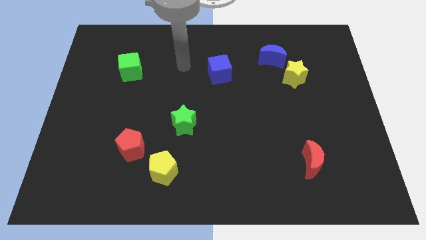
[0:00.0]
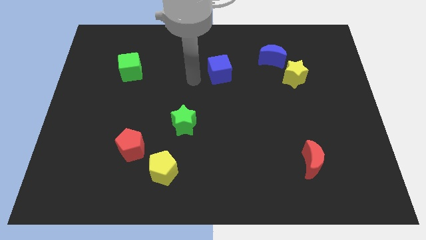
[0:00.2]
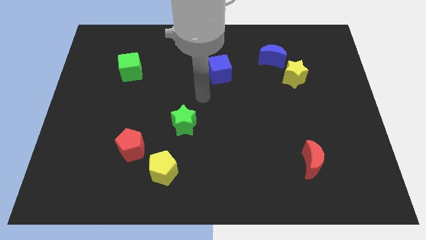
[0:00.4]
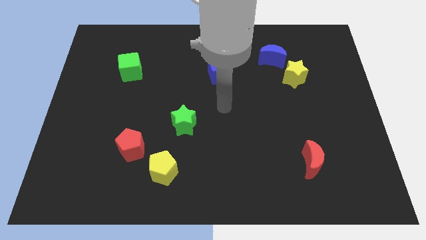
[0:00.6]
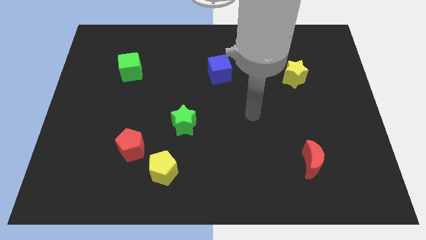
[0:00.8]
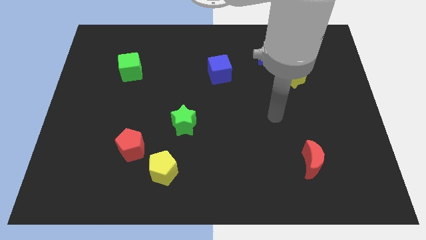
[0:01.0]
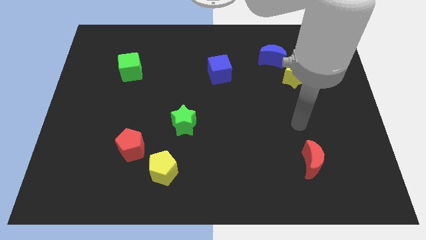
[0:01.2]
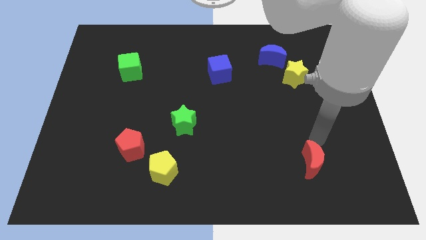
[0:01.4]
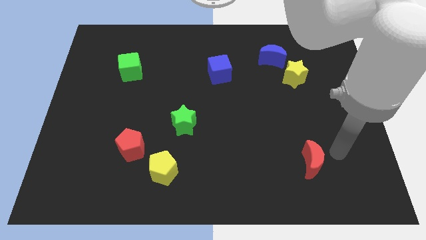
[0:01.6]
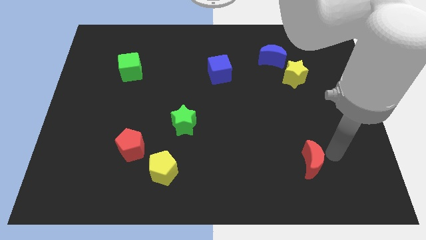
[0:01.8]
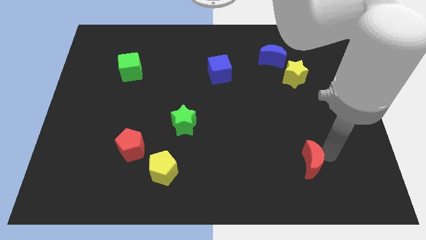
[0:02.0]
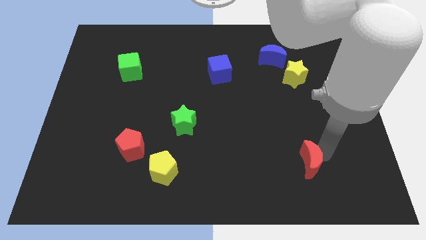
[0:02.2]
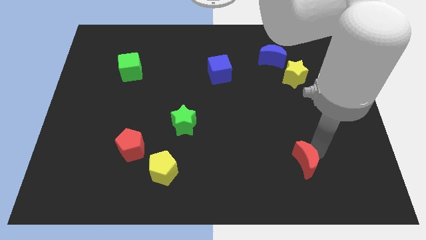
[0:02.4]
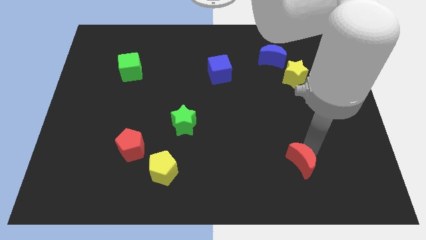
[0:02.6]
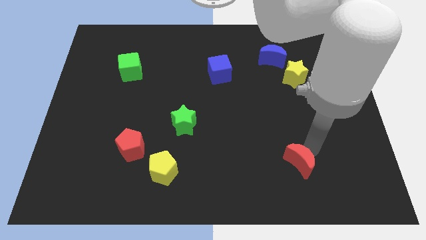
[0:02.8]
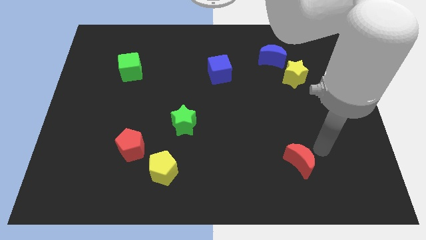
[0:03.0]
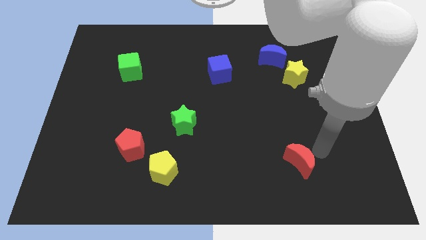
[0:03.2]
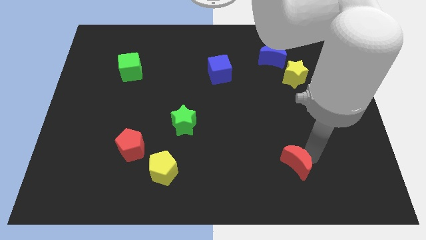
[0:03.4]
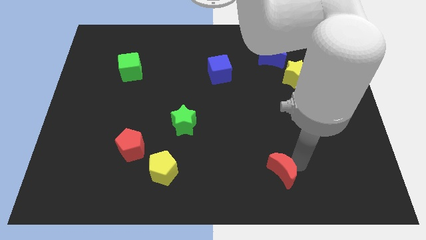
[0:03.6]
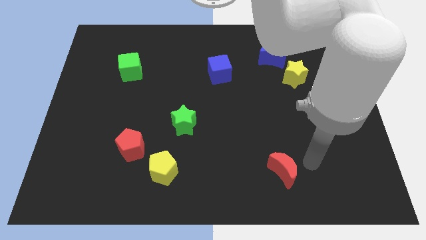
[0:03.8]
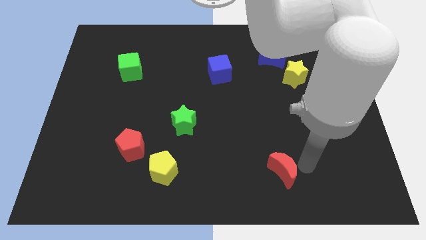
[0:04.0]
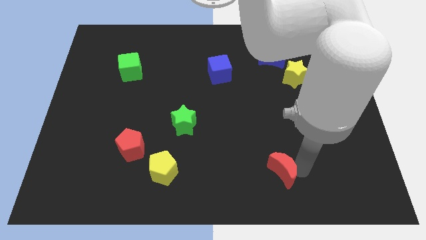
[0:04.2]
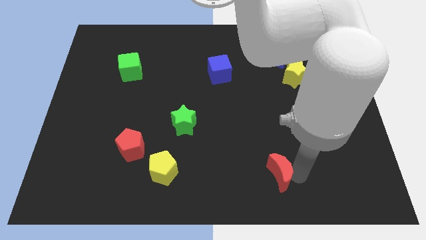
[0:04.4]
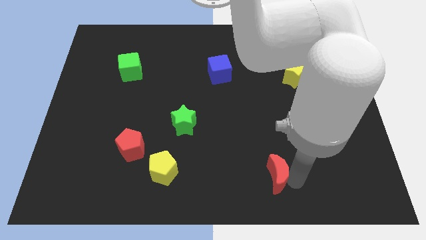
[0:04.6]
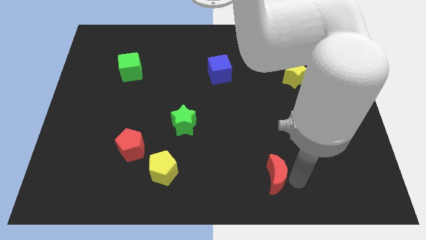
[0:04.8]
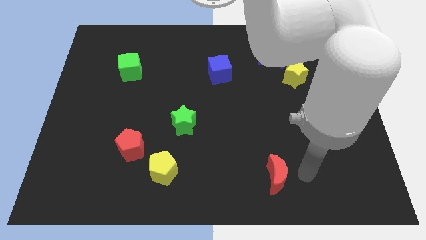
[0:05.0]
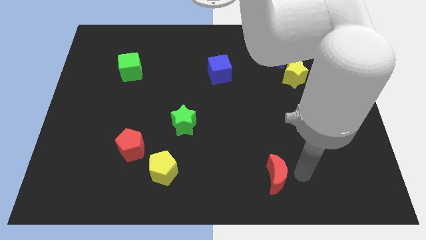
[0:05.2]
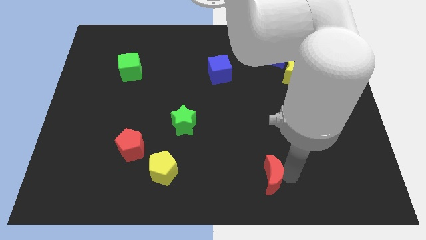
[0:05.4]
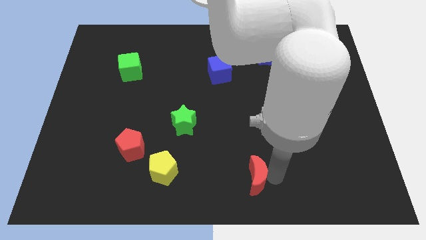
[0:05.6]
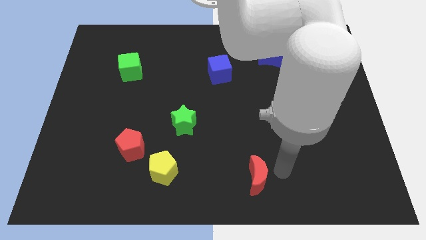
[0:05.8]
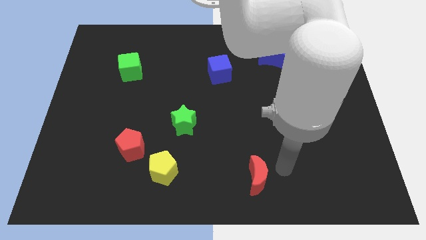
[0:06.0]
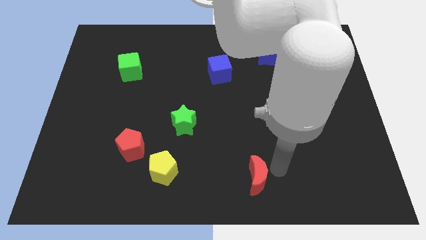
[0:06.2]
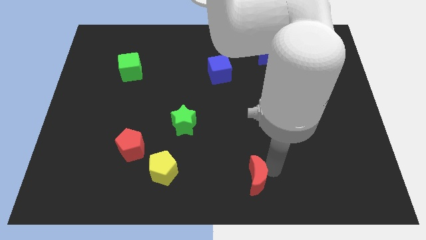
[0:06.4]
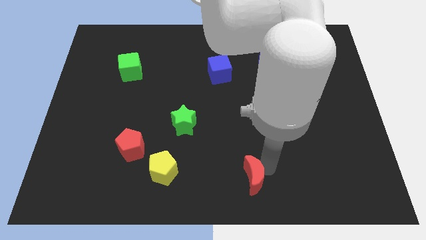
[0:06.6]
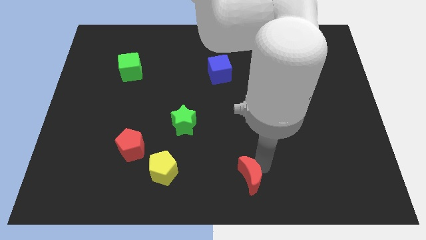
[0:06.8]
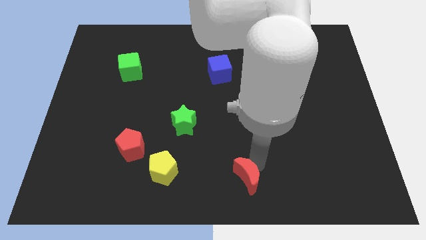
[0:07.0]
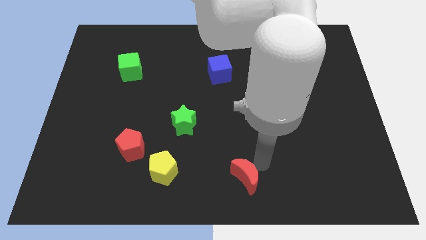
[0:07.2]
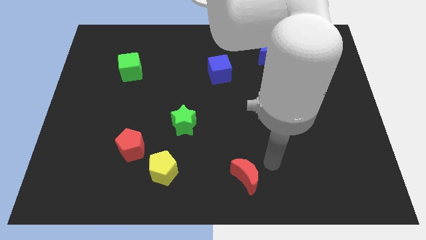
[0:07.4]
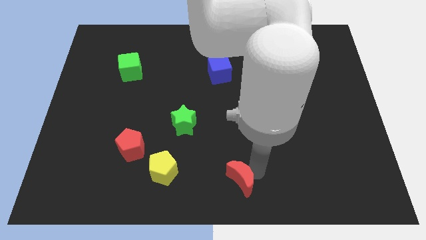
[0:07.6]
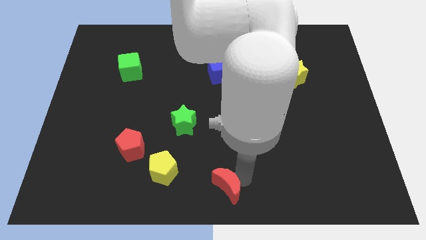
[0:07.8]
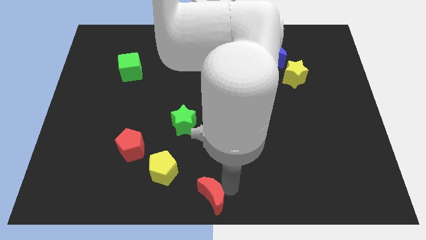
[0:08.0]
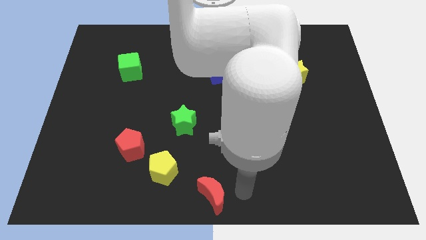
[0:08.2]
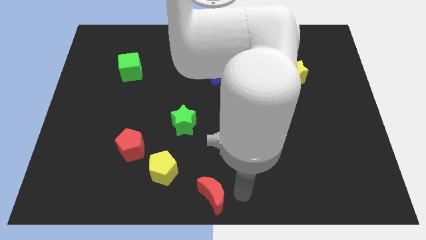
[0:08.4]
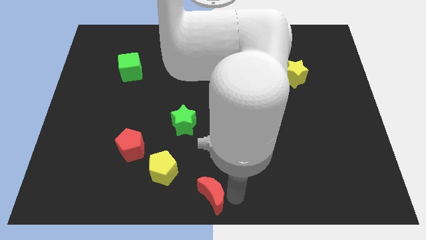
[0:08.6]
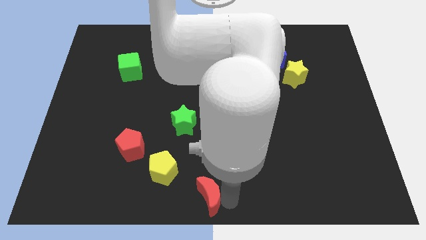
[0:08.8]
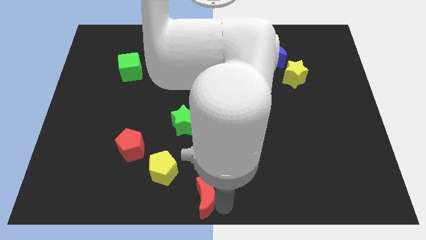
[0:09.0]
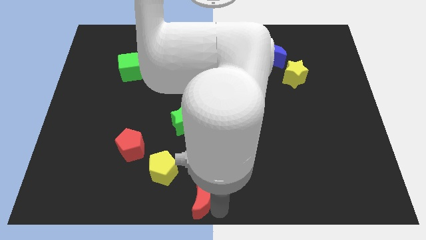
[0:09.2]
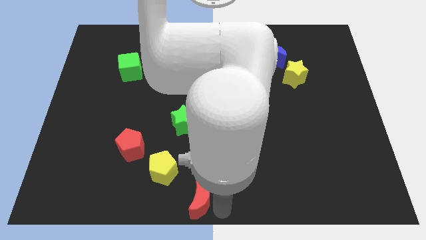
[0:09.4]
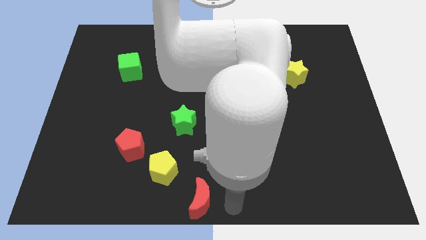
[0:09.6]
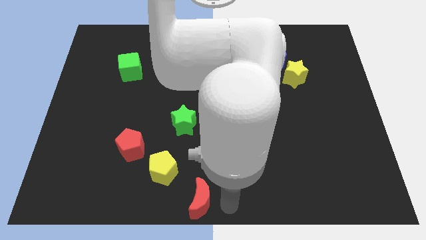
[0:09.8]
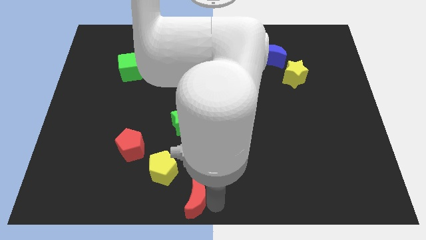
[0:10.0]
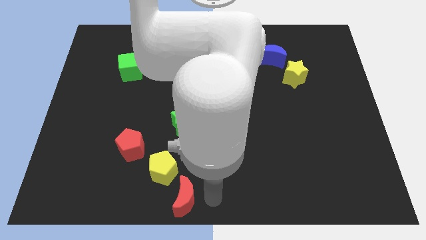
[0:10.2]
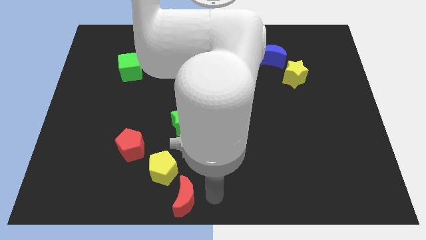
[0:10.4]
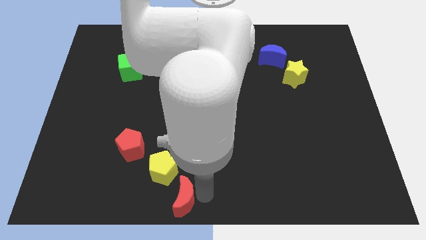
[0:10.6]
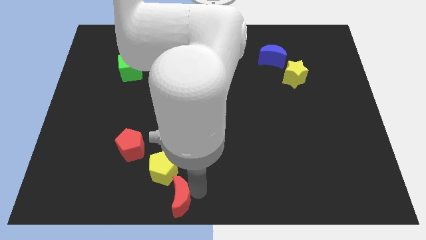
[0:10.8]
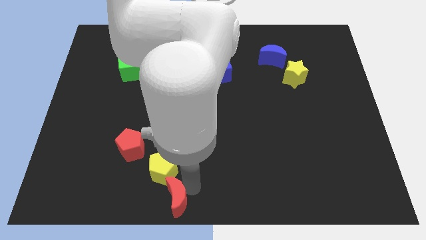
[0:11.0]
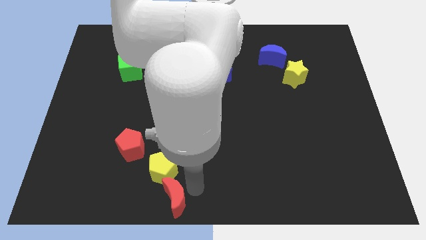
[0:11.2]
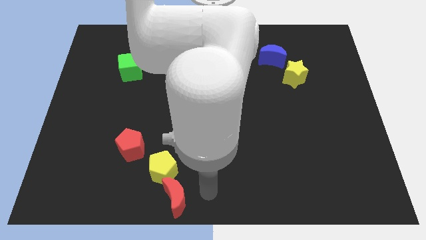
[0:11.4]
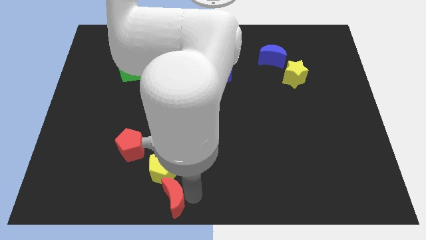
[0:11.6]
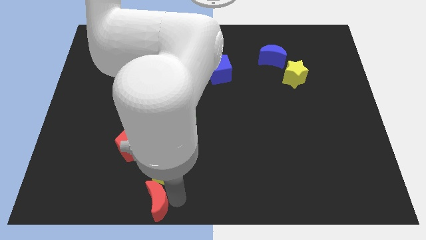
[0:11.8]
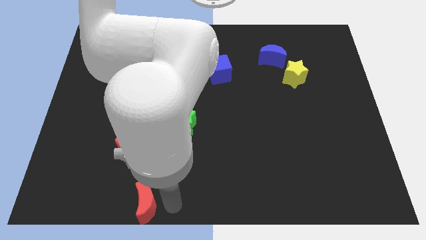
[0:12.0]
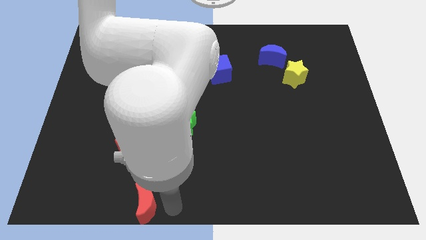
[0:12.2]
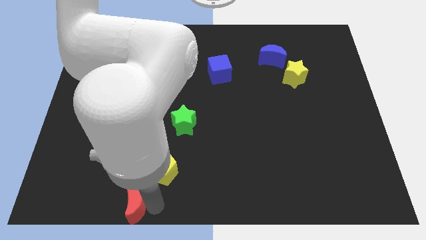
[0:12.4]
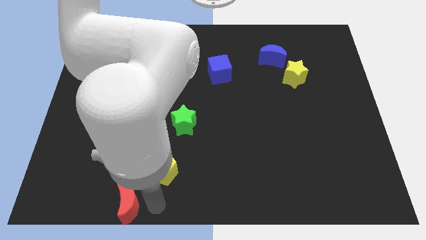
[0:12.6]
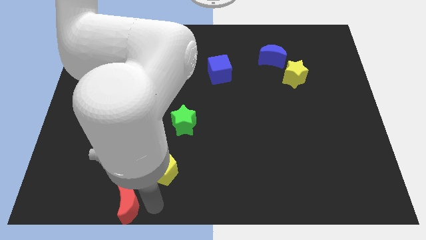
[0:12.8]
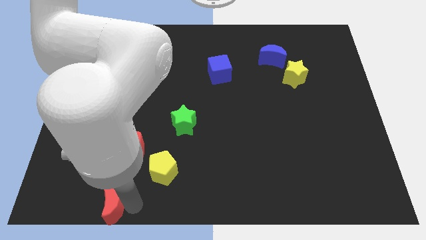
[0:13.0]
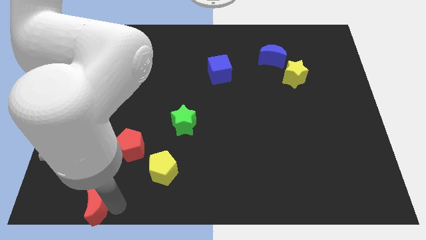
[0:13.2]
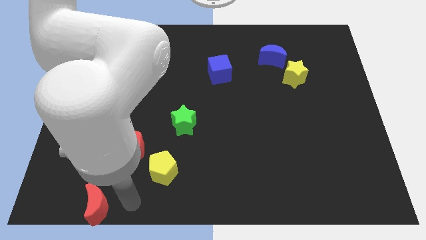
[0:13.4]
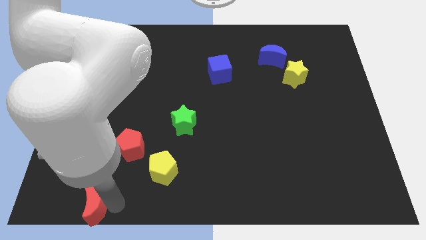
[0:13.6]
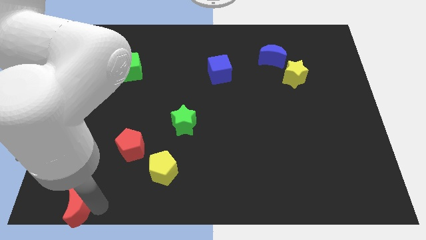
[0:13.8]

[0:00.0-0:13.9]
slide the red moon to the lower left corner
